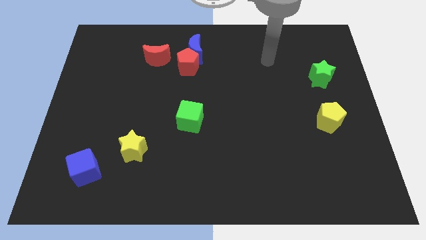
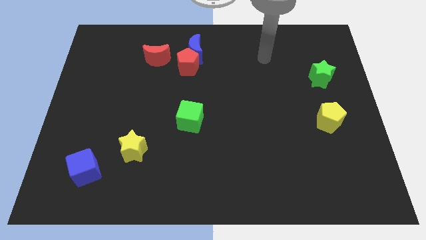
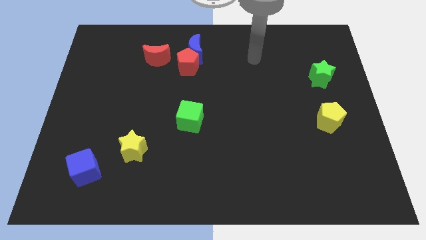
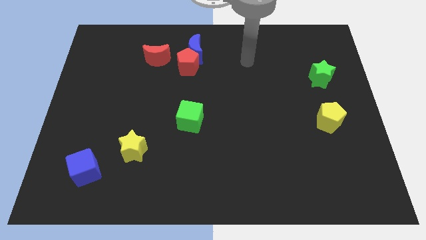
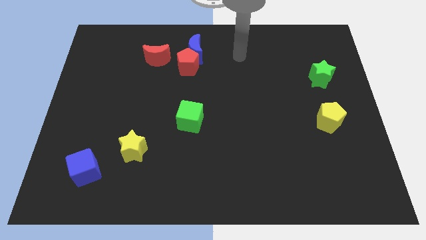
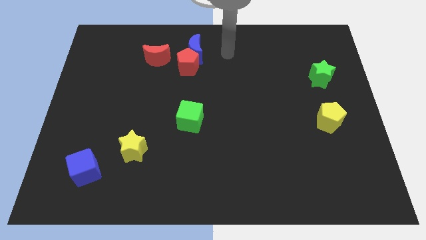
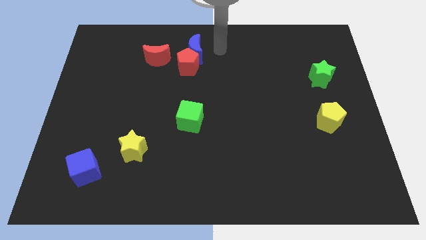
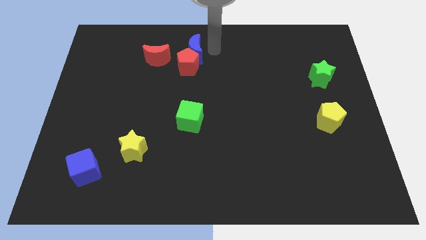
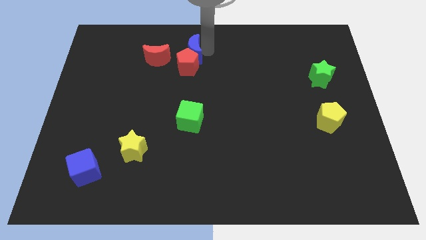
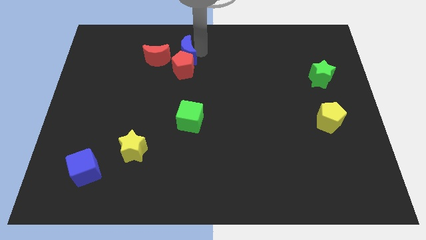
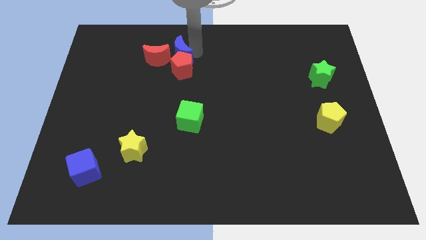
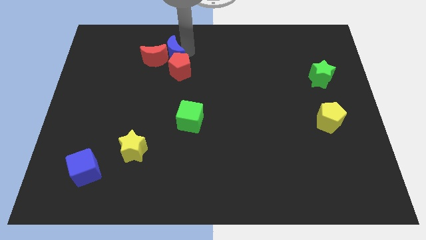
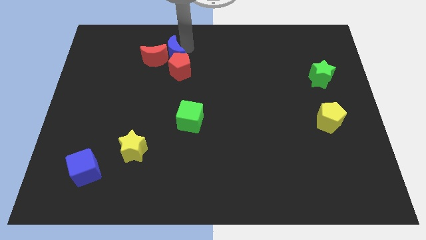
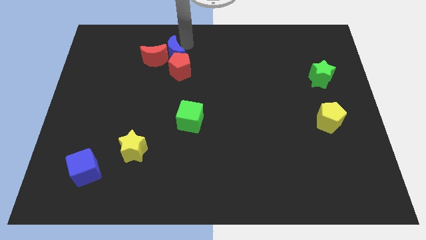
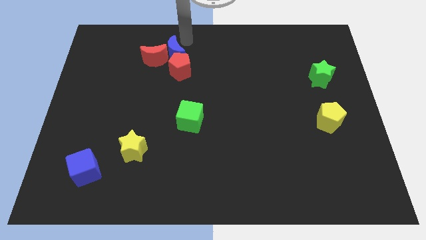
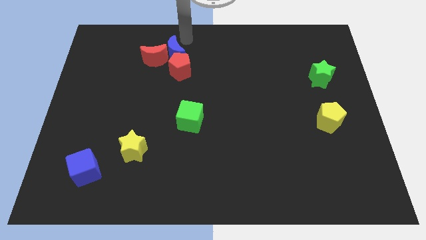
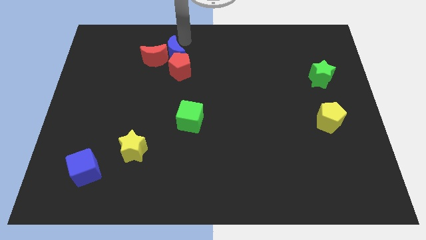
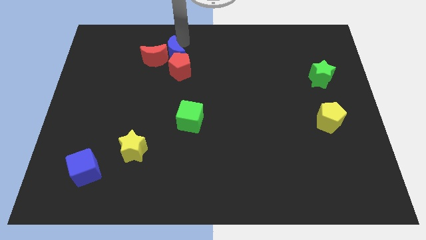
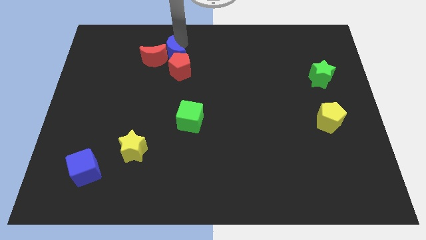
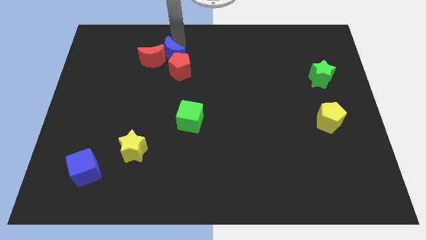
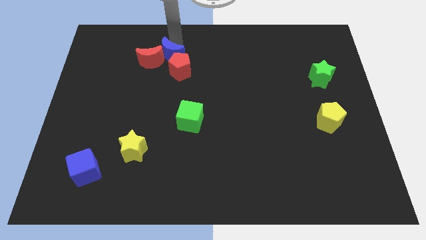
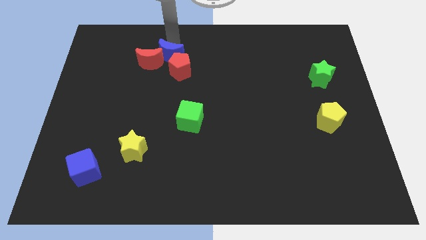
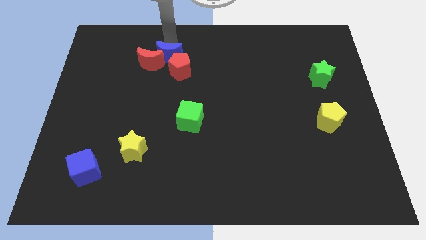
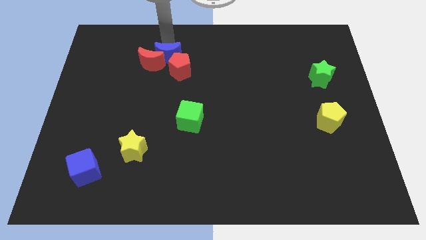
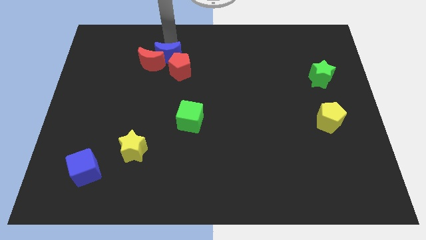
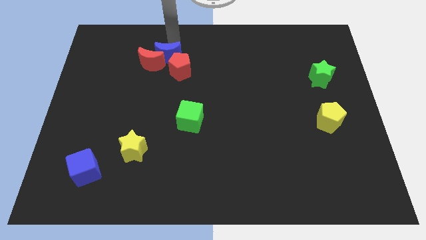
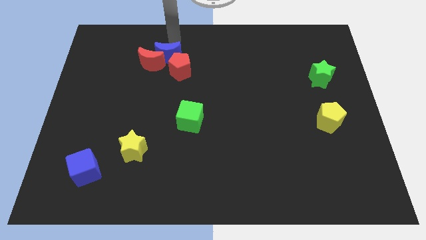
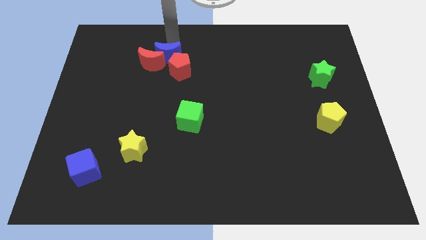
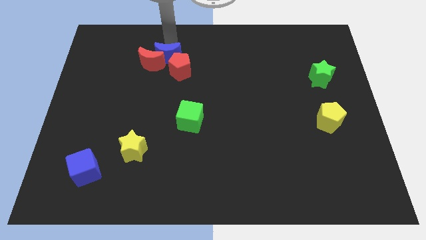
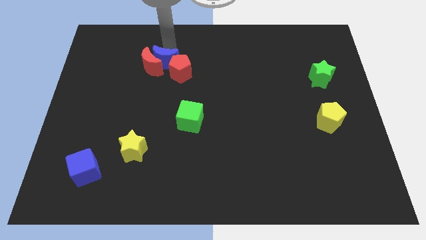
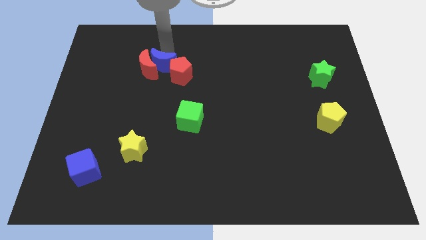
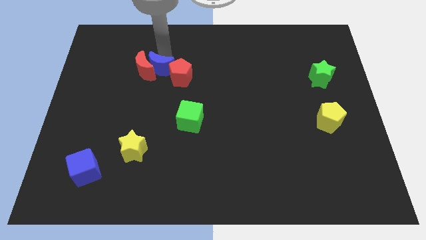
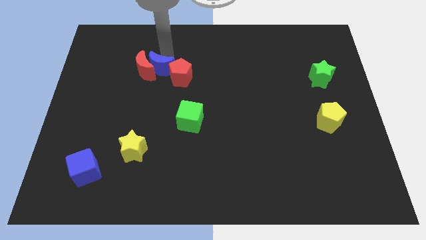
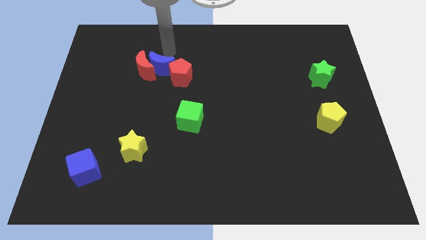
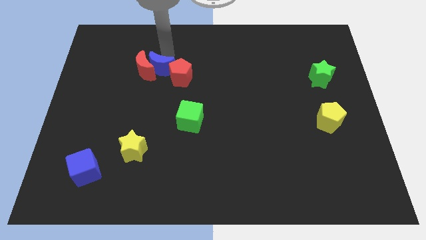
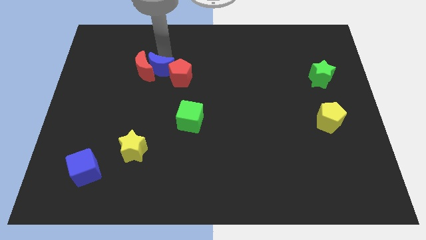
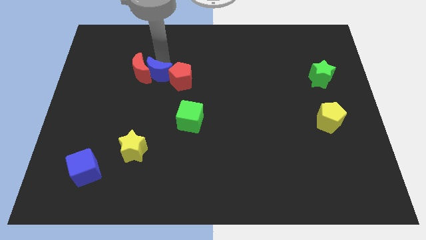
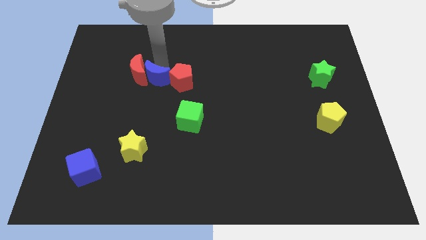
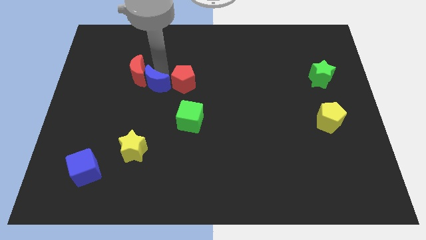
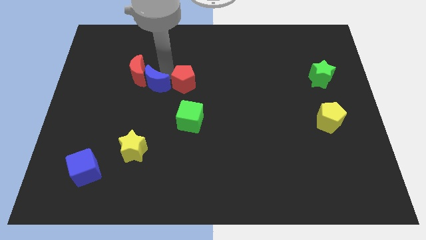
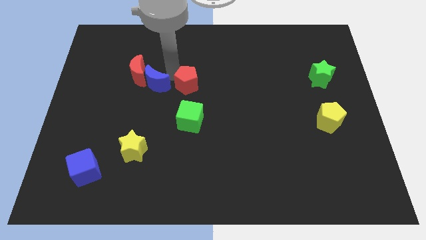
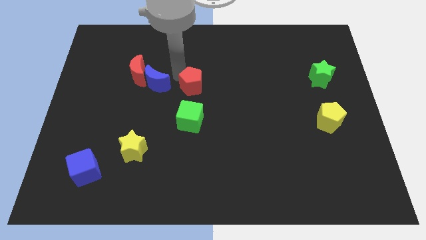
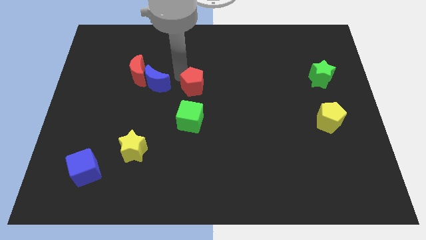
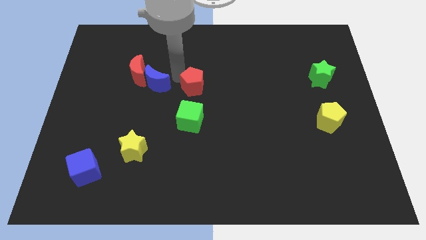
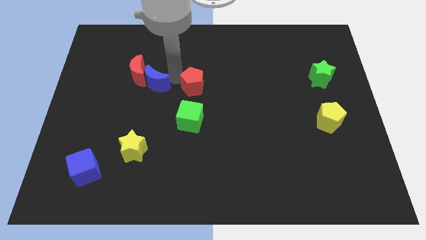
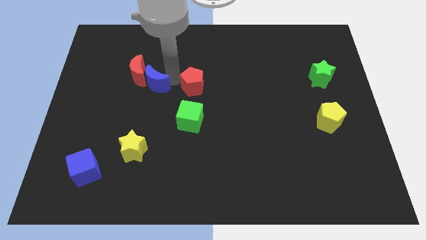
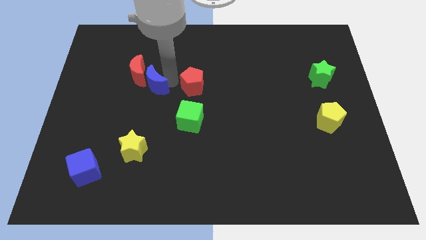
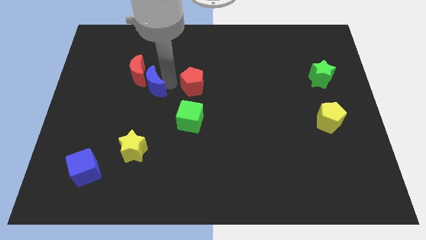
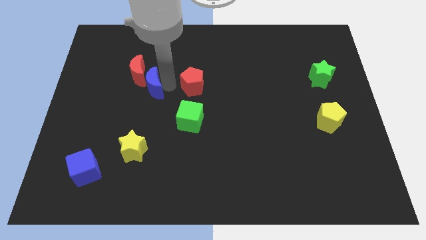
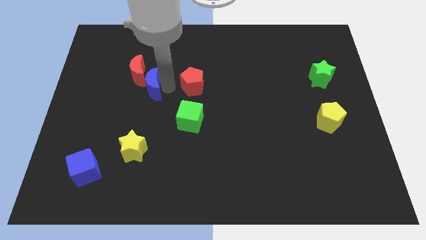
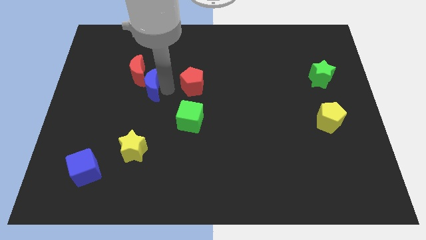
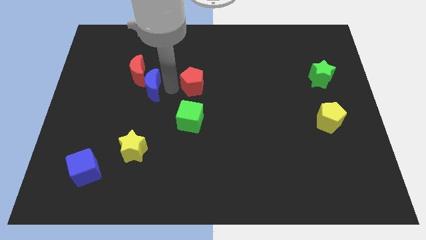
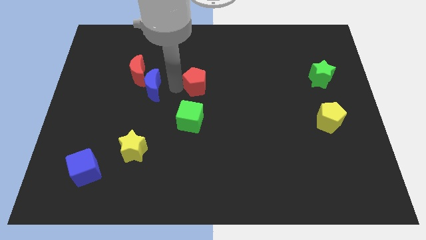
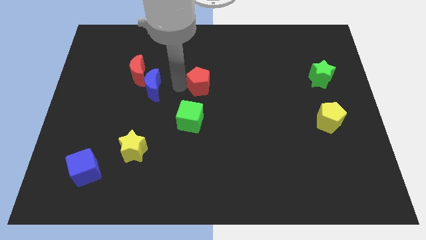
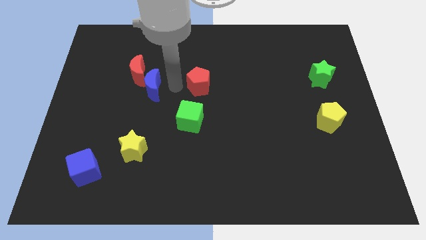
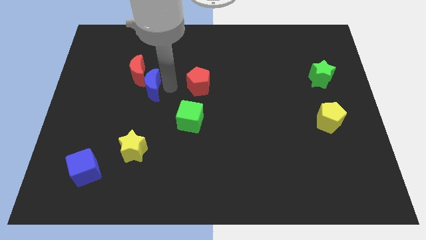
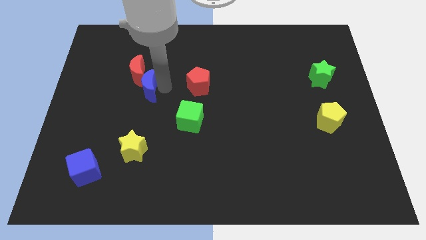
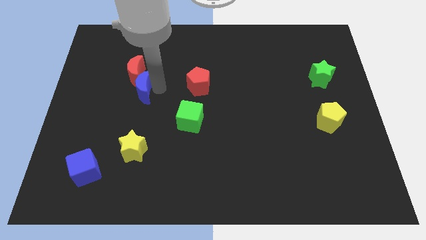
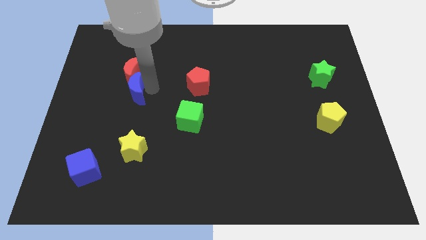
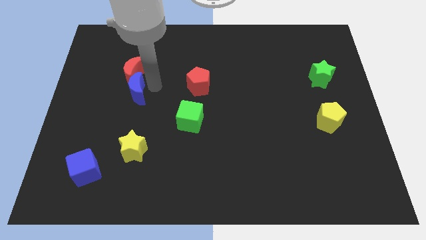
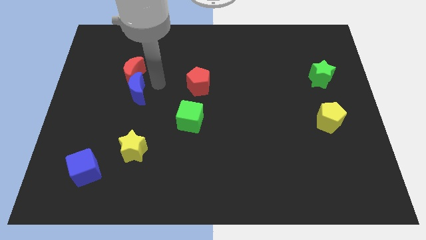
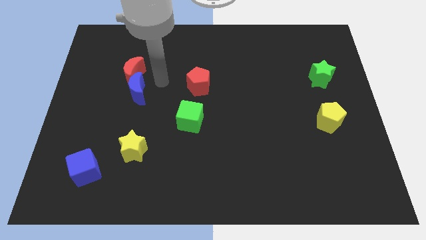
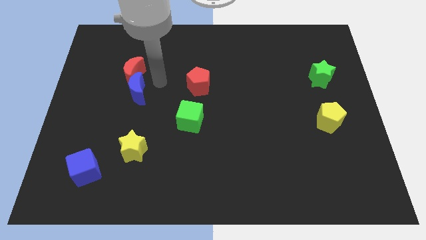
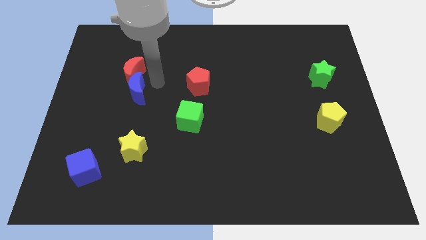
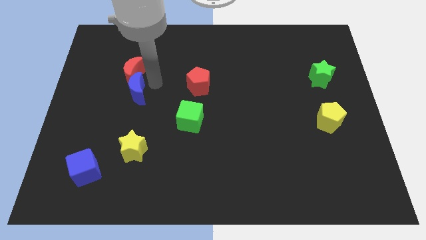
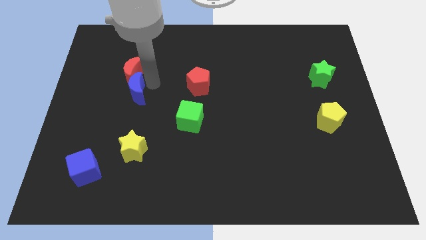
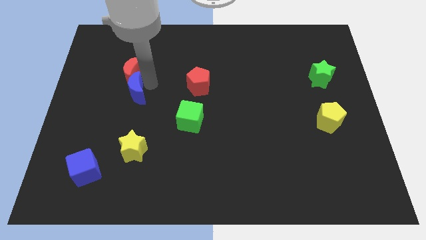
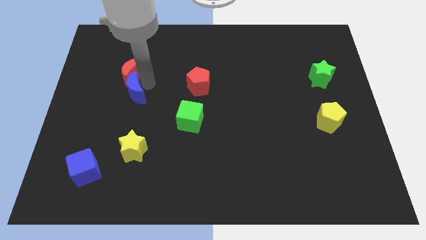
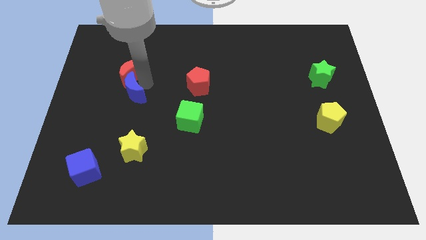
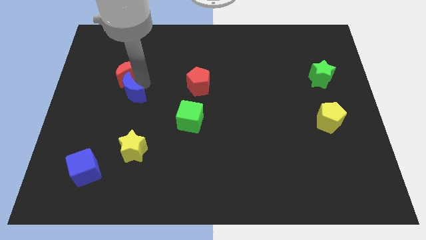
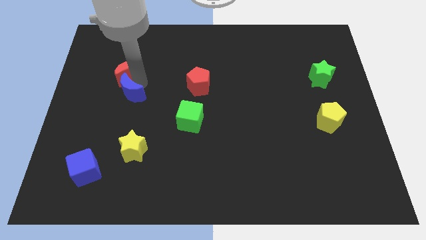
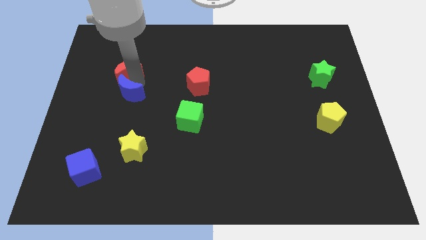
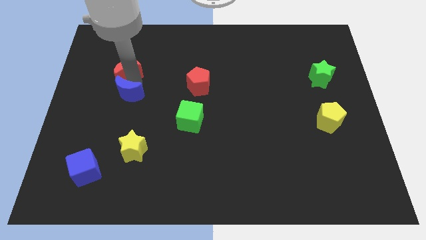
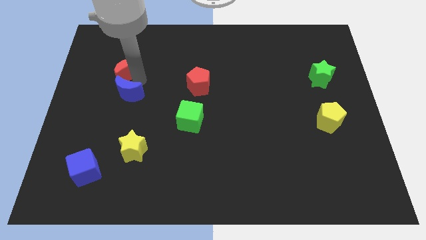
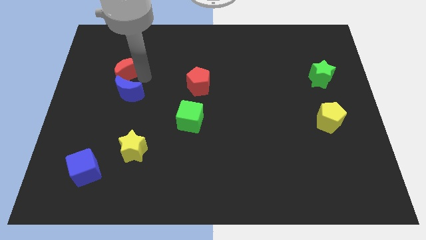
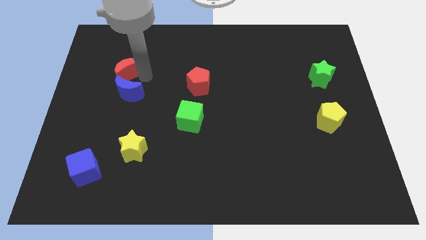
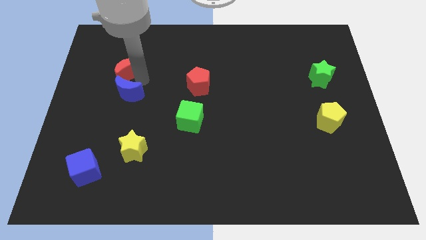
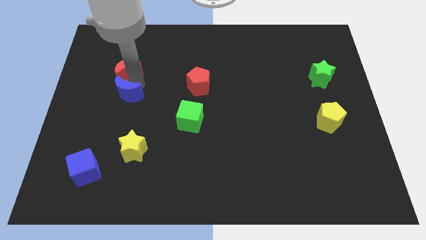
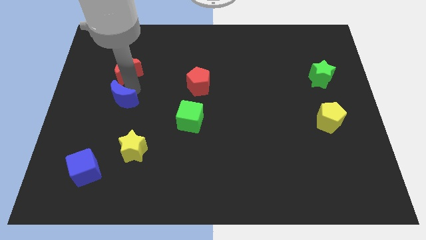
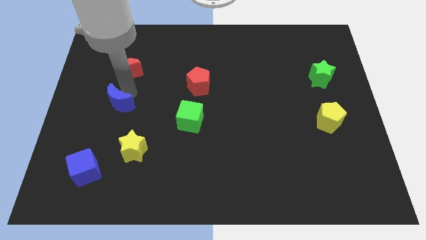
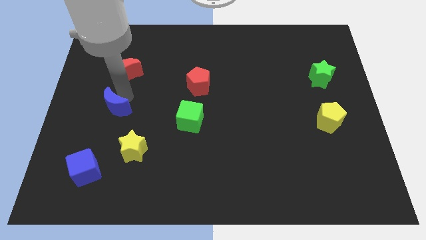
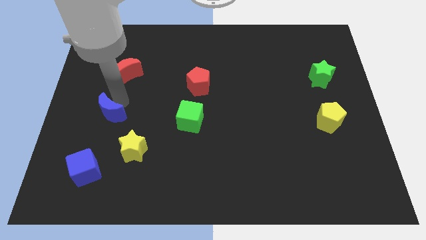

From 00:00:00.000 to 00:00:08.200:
put the blue moon above the blue cube
